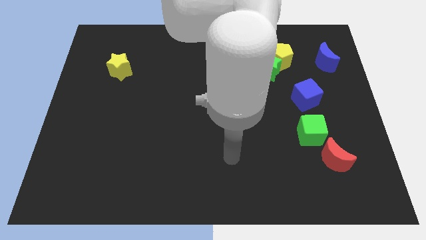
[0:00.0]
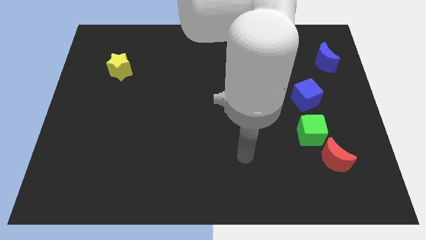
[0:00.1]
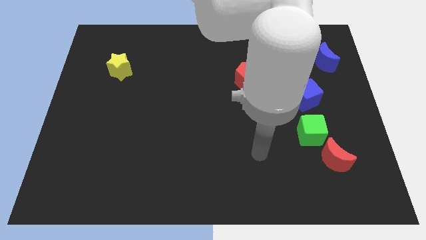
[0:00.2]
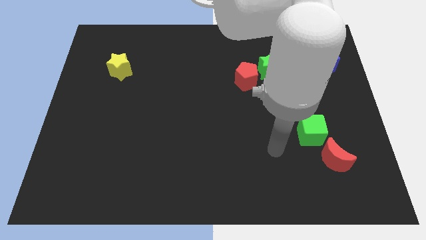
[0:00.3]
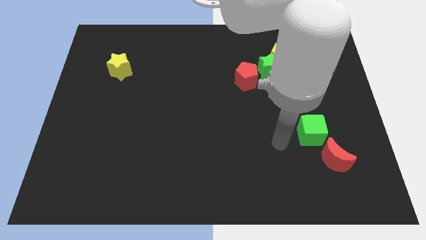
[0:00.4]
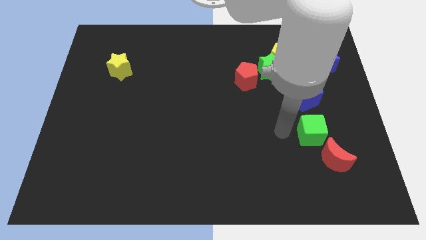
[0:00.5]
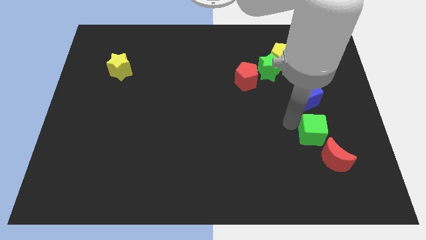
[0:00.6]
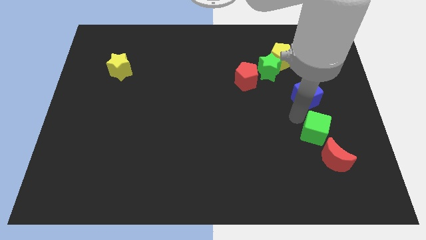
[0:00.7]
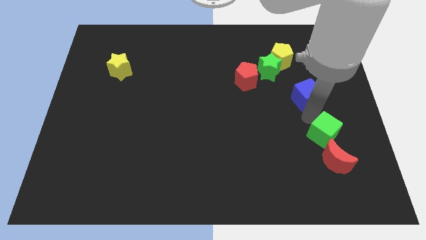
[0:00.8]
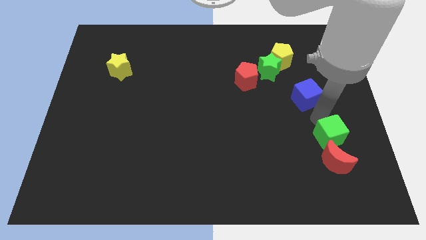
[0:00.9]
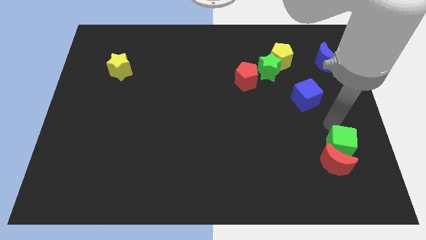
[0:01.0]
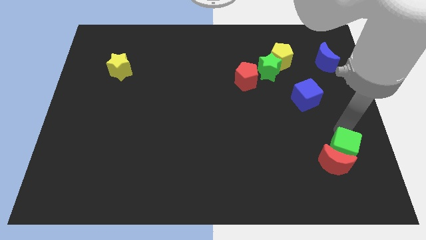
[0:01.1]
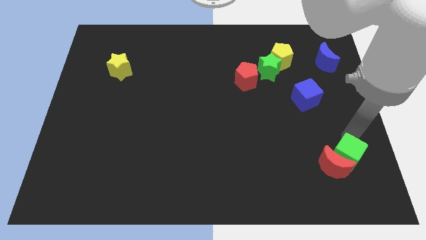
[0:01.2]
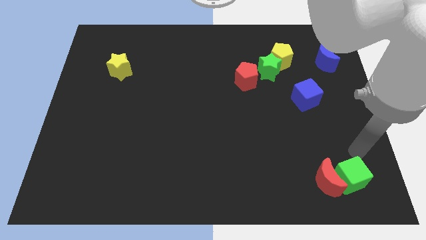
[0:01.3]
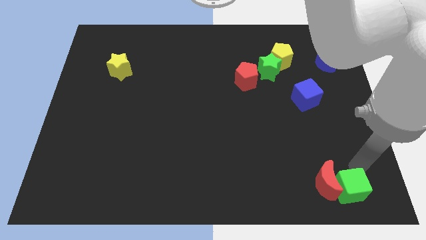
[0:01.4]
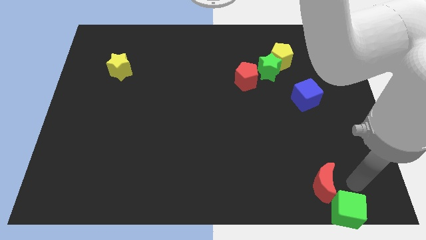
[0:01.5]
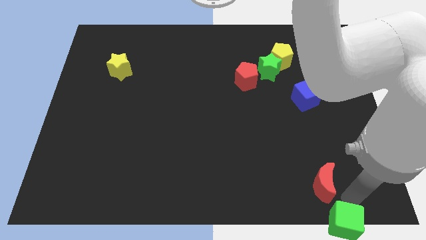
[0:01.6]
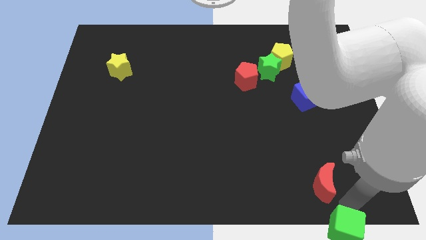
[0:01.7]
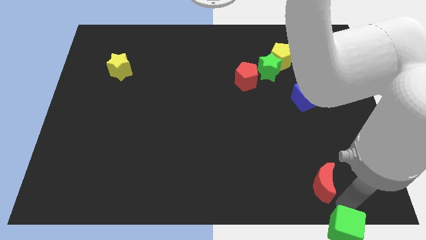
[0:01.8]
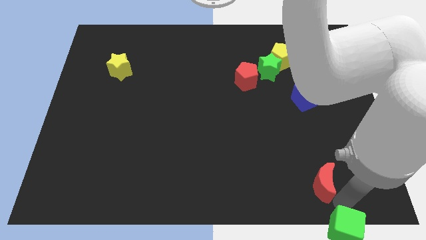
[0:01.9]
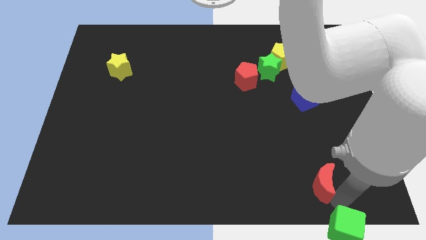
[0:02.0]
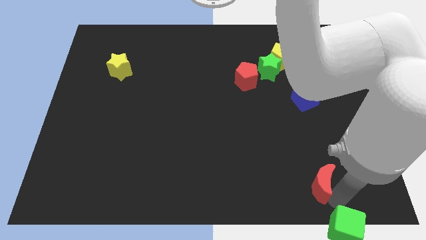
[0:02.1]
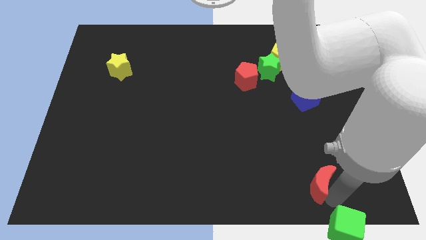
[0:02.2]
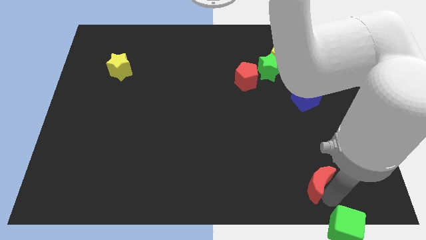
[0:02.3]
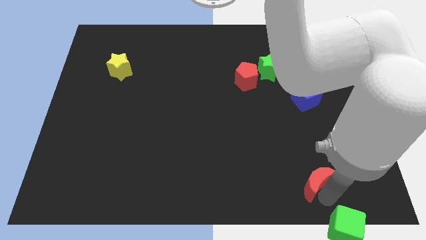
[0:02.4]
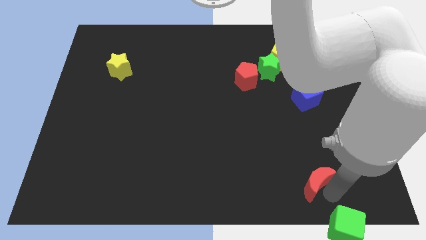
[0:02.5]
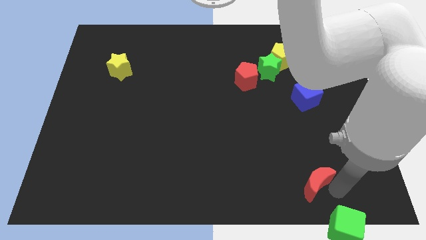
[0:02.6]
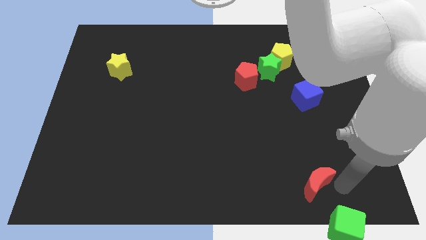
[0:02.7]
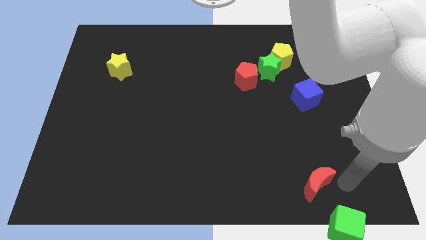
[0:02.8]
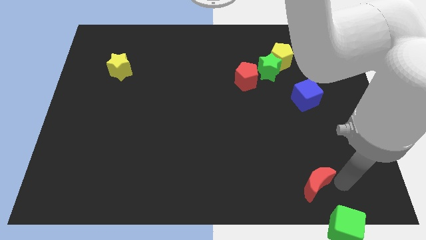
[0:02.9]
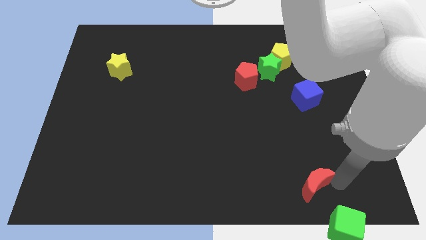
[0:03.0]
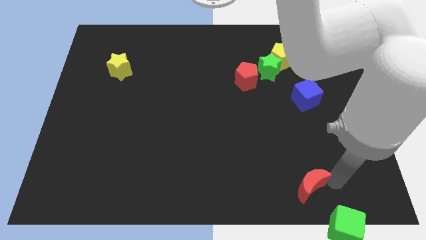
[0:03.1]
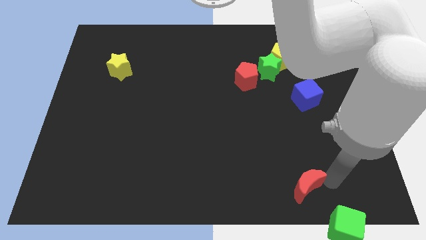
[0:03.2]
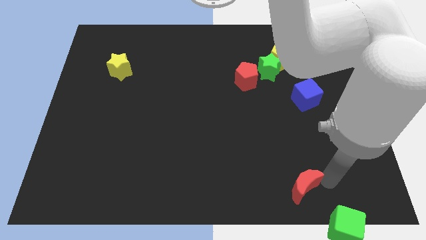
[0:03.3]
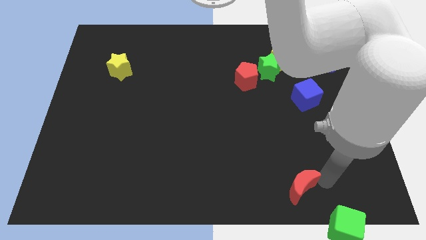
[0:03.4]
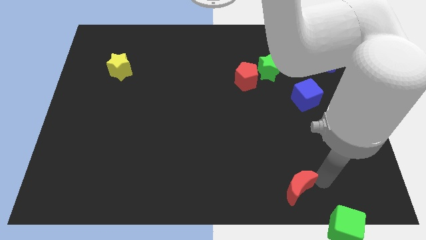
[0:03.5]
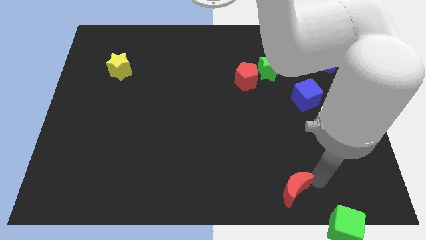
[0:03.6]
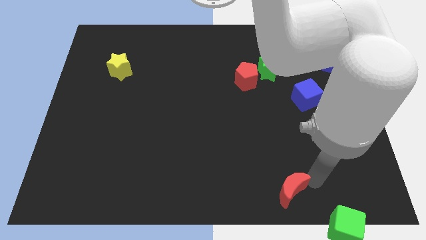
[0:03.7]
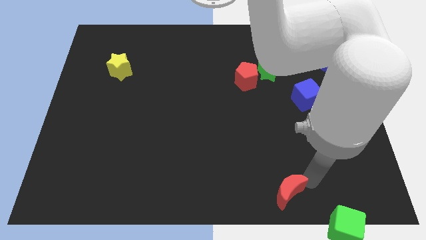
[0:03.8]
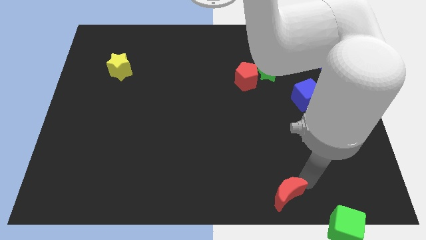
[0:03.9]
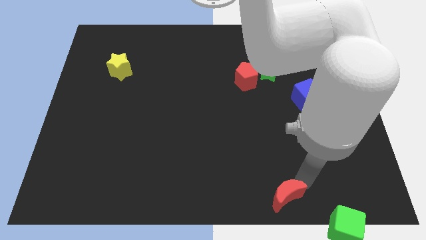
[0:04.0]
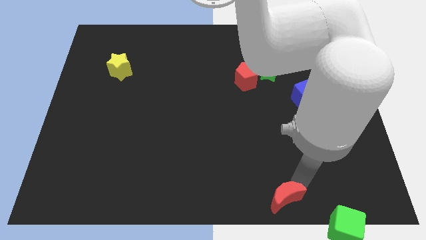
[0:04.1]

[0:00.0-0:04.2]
move the red moon to the bottom side

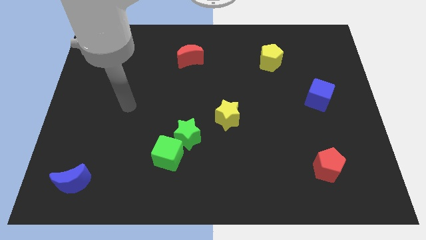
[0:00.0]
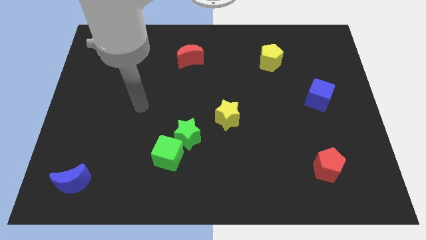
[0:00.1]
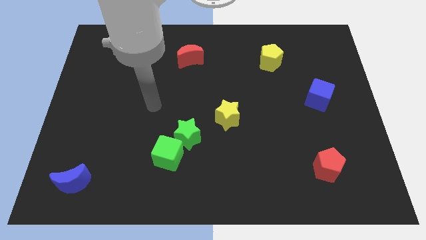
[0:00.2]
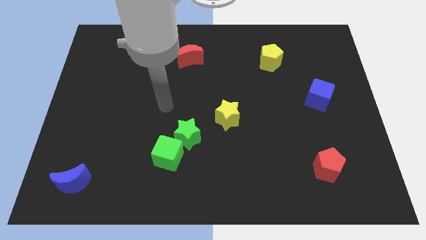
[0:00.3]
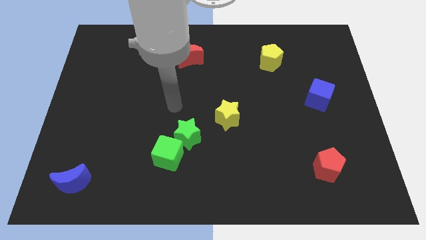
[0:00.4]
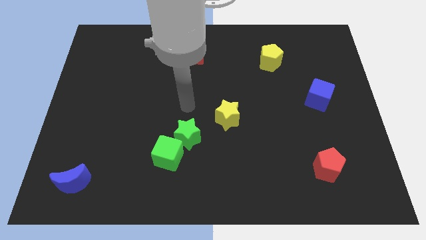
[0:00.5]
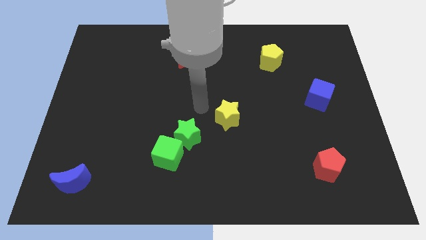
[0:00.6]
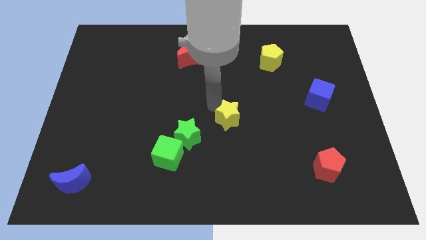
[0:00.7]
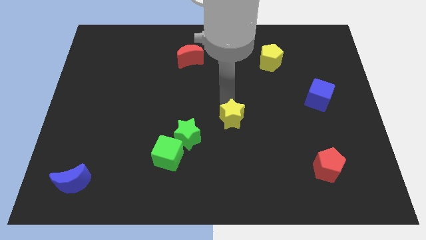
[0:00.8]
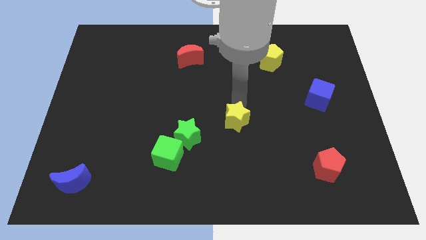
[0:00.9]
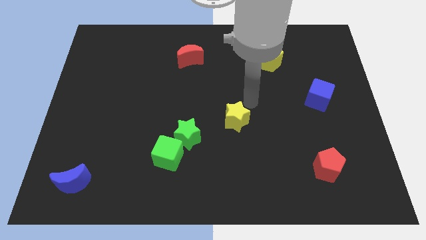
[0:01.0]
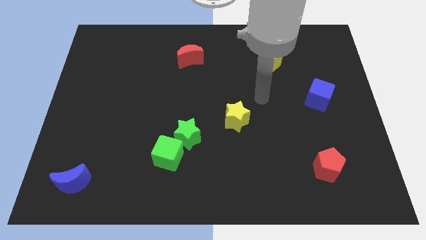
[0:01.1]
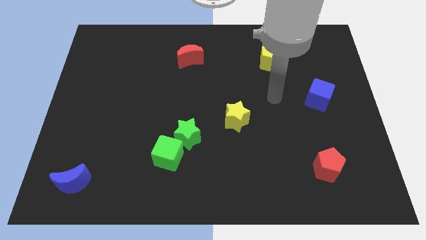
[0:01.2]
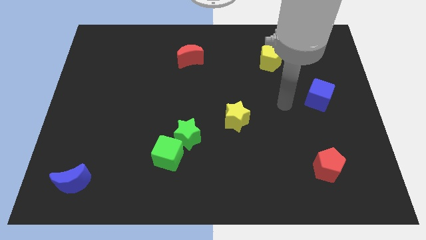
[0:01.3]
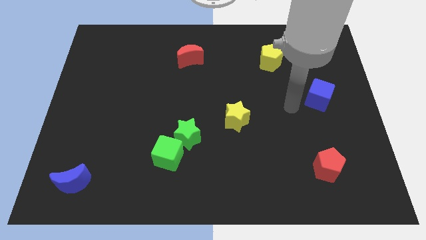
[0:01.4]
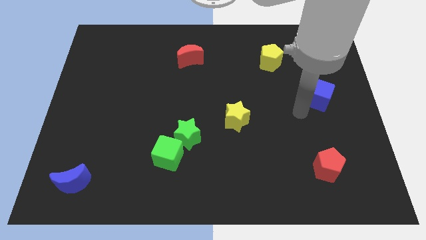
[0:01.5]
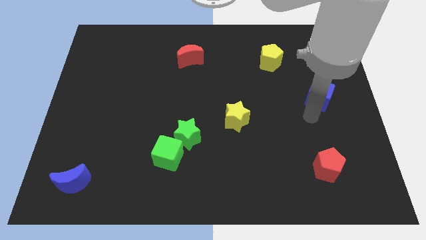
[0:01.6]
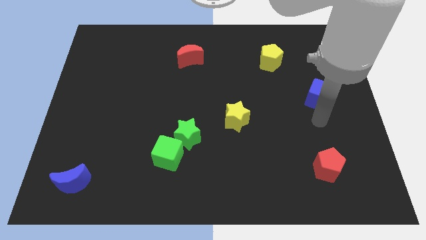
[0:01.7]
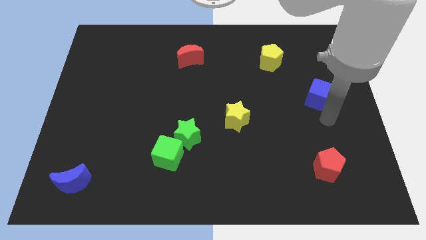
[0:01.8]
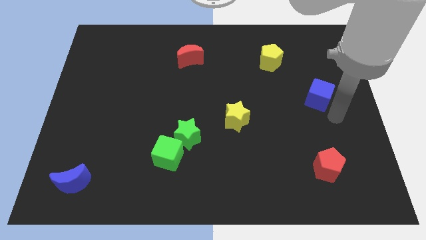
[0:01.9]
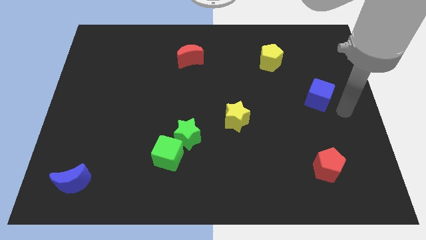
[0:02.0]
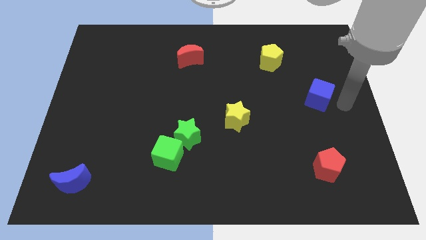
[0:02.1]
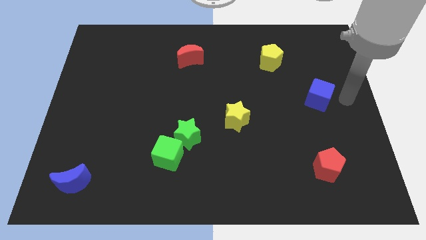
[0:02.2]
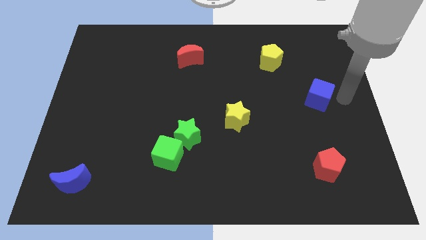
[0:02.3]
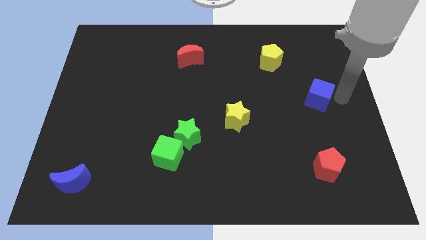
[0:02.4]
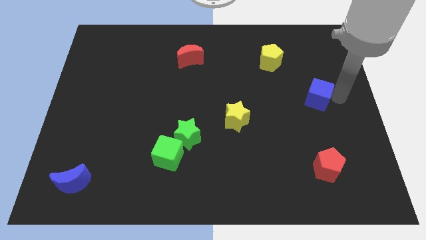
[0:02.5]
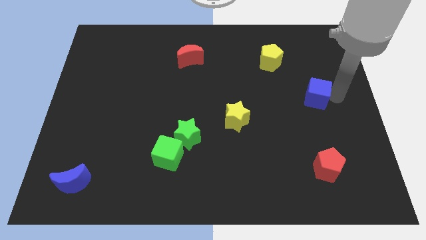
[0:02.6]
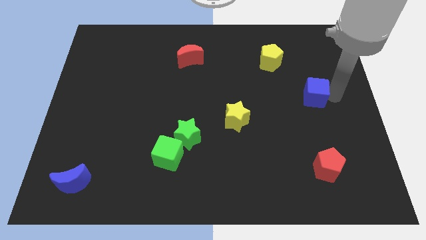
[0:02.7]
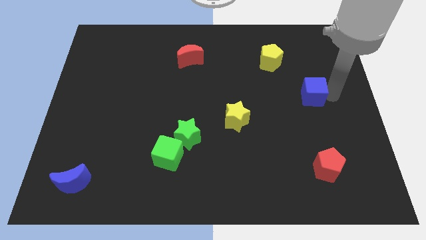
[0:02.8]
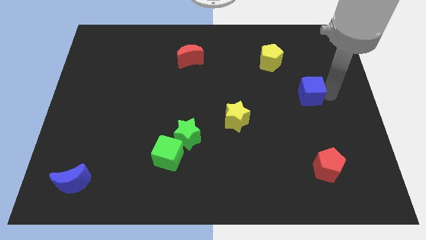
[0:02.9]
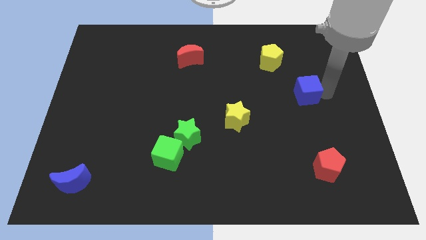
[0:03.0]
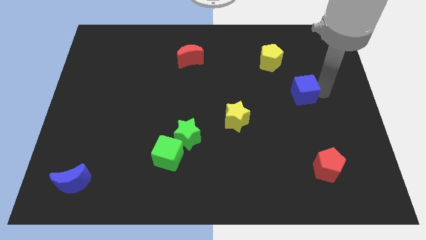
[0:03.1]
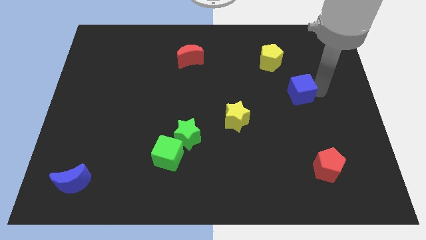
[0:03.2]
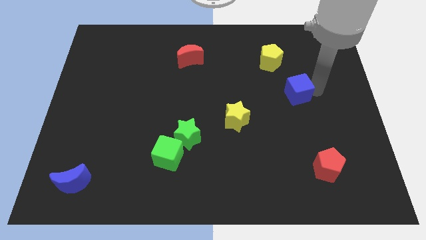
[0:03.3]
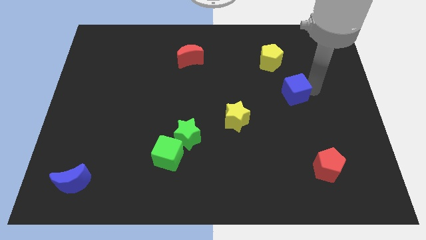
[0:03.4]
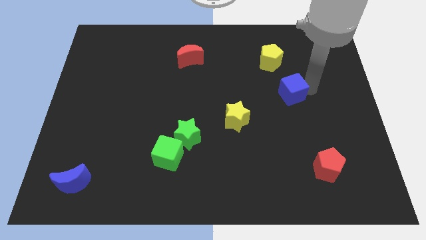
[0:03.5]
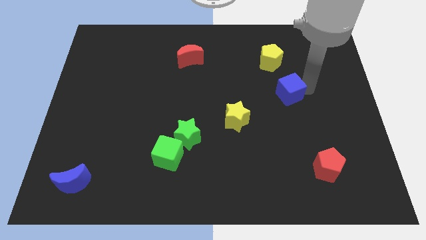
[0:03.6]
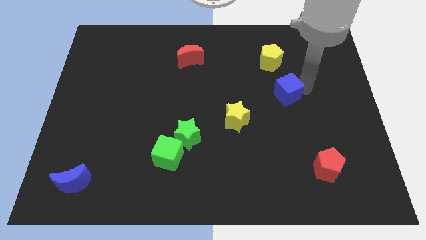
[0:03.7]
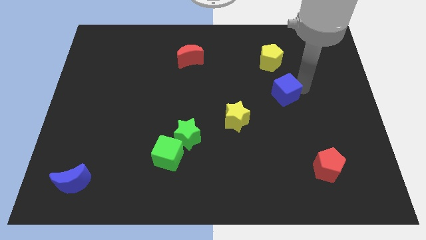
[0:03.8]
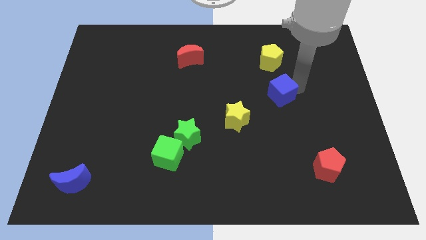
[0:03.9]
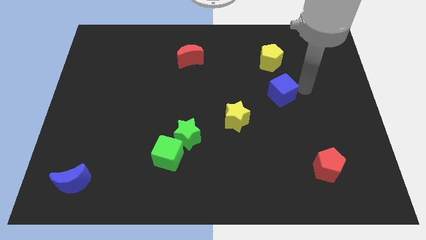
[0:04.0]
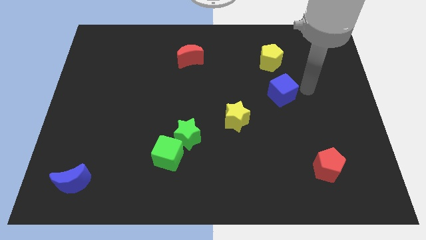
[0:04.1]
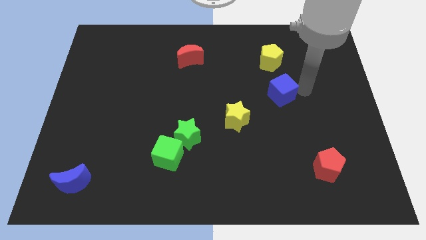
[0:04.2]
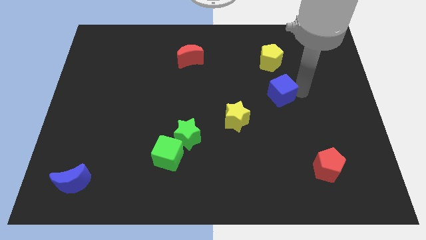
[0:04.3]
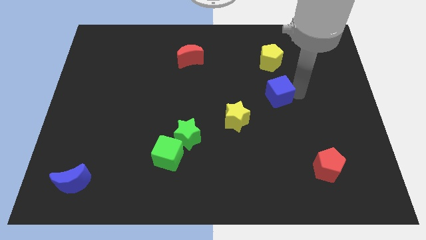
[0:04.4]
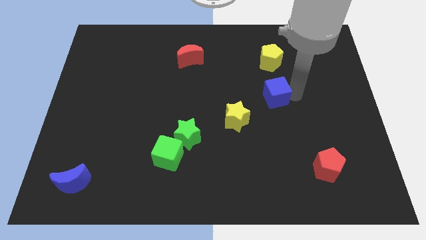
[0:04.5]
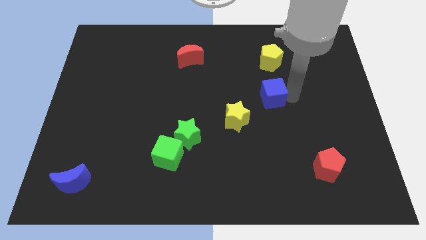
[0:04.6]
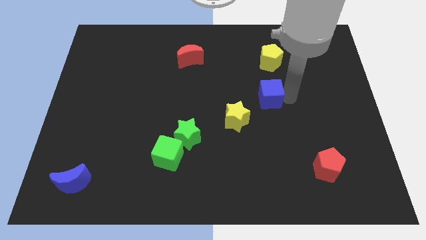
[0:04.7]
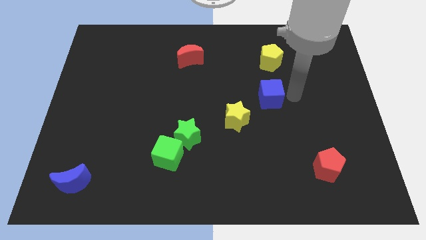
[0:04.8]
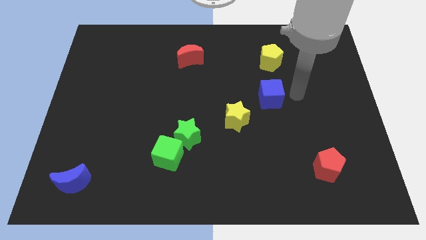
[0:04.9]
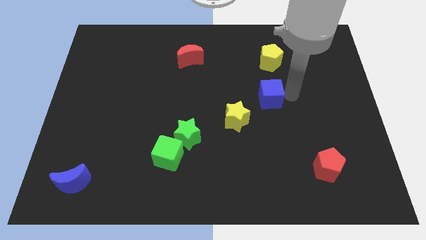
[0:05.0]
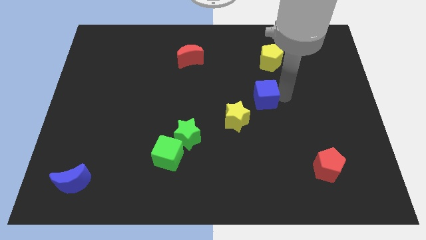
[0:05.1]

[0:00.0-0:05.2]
push the blue cube to the middle of the board
